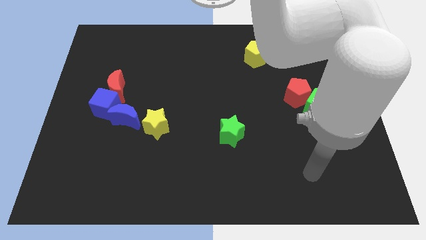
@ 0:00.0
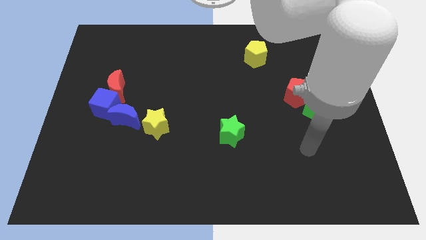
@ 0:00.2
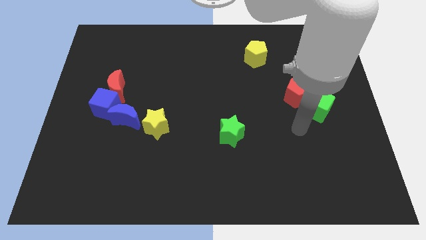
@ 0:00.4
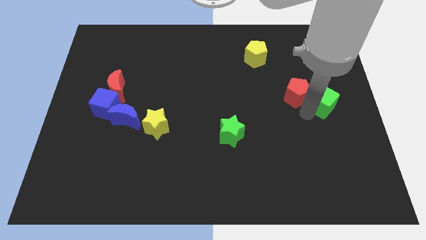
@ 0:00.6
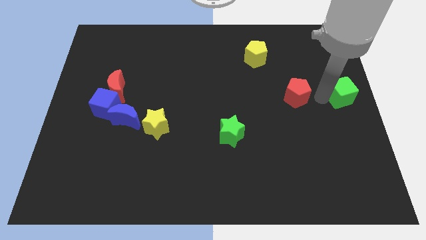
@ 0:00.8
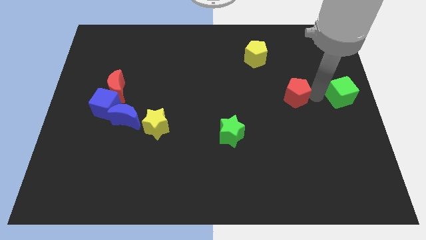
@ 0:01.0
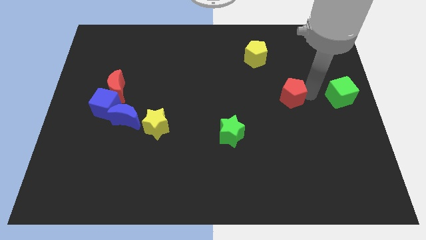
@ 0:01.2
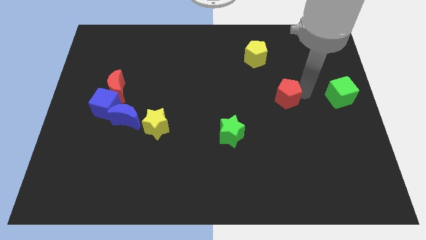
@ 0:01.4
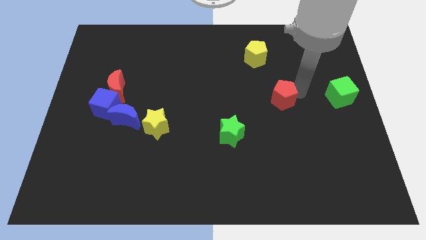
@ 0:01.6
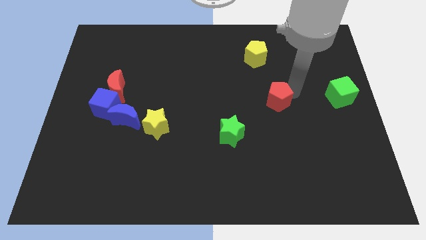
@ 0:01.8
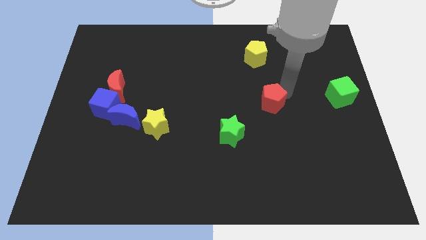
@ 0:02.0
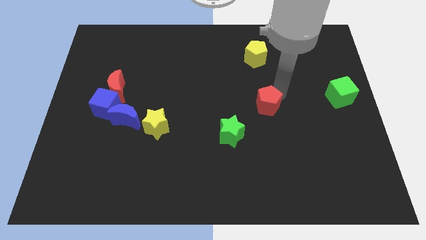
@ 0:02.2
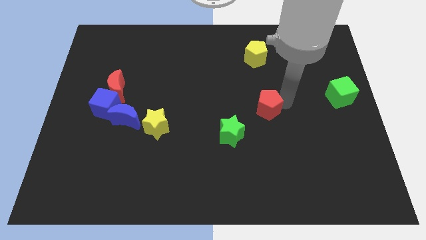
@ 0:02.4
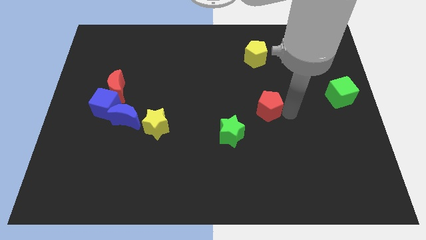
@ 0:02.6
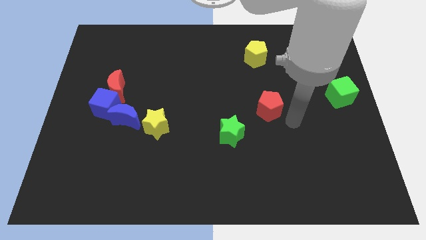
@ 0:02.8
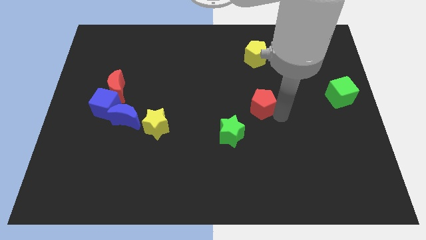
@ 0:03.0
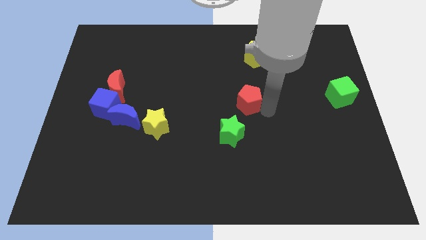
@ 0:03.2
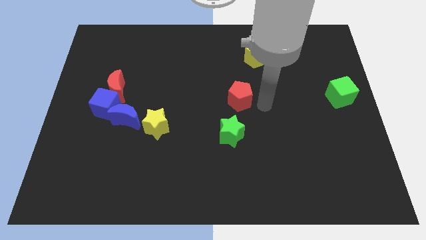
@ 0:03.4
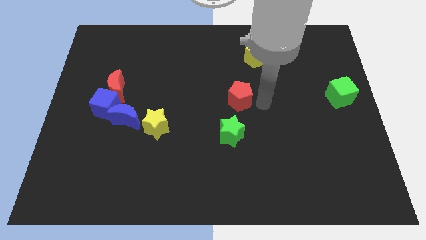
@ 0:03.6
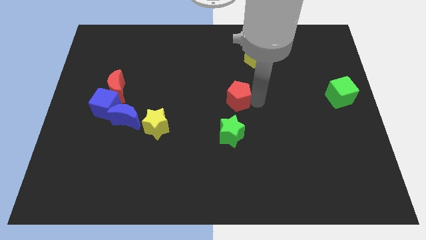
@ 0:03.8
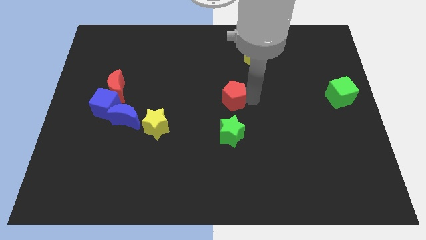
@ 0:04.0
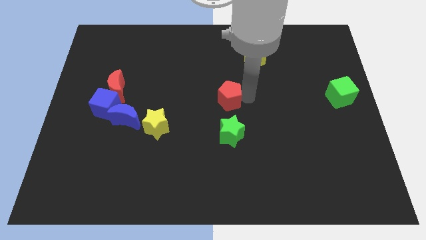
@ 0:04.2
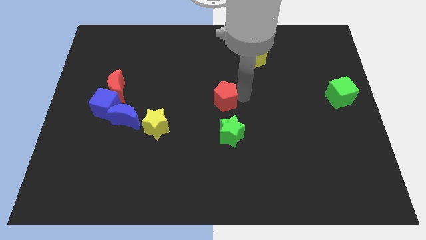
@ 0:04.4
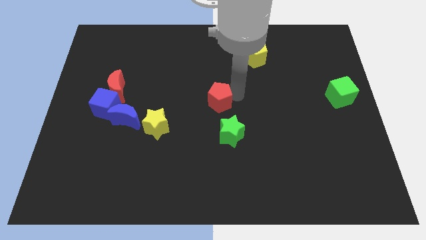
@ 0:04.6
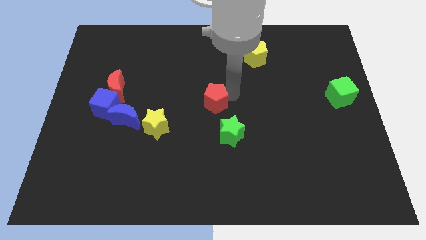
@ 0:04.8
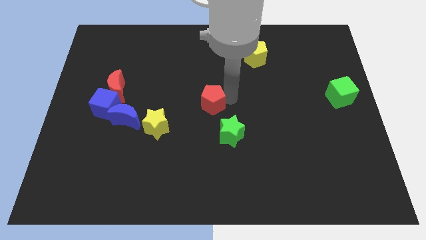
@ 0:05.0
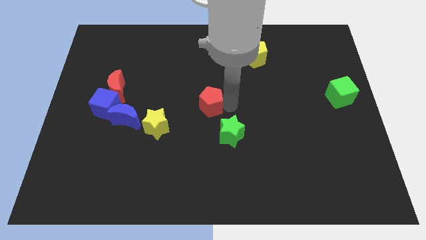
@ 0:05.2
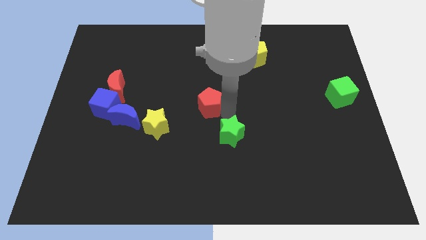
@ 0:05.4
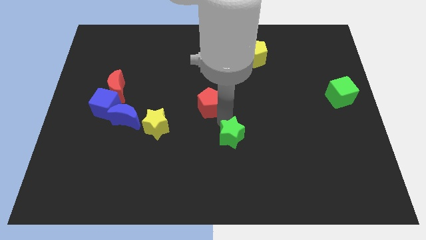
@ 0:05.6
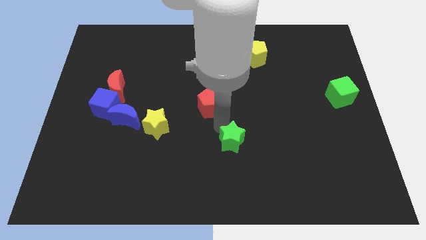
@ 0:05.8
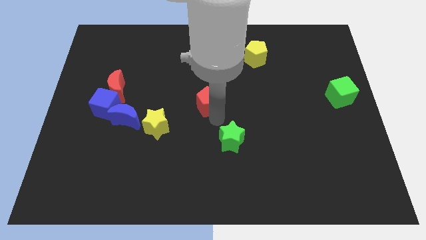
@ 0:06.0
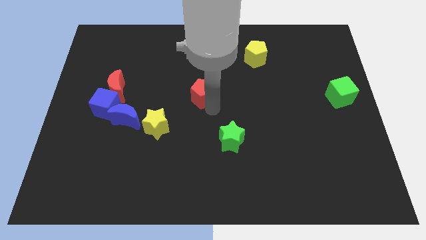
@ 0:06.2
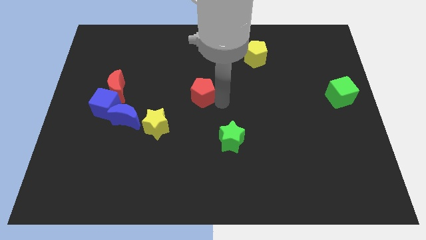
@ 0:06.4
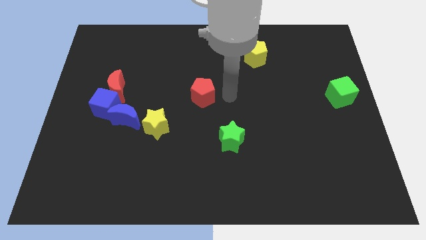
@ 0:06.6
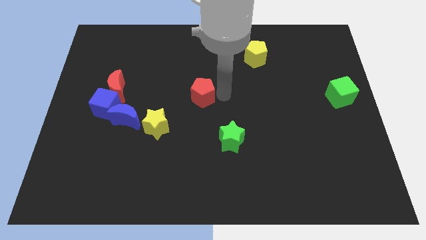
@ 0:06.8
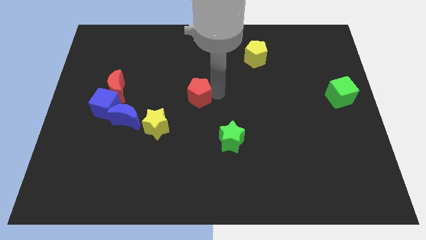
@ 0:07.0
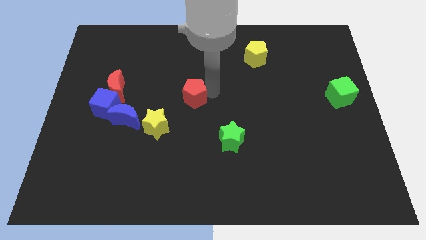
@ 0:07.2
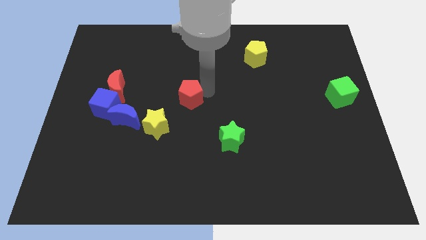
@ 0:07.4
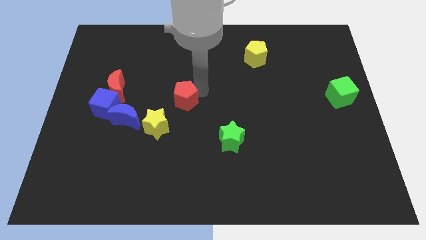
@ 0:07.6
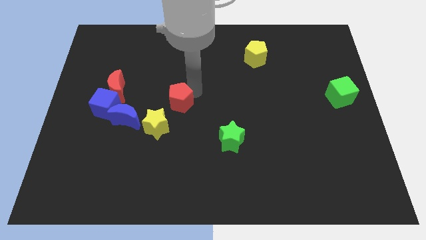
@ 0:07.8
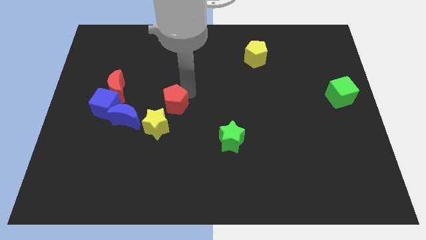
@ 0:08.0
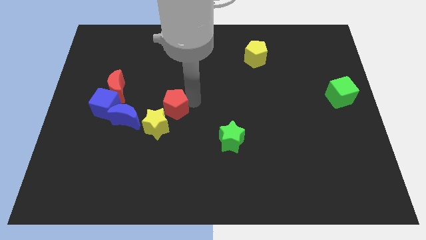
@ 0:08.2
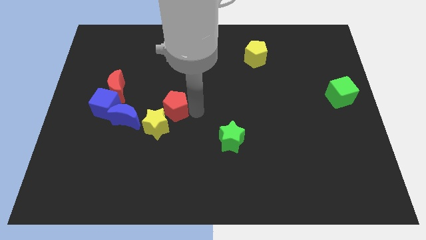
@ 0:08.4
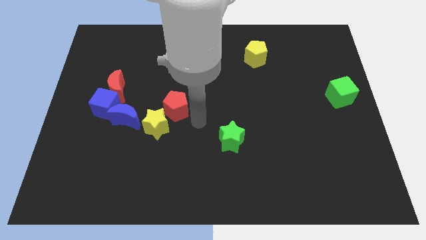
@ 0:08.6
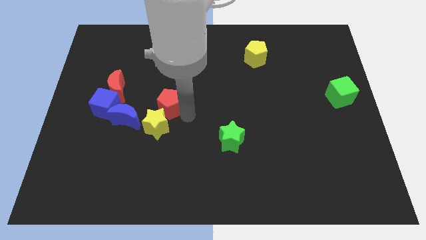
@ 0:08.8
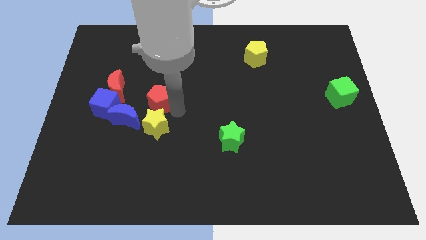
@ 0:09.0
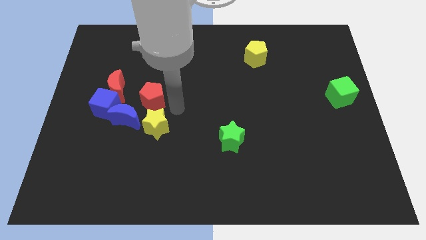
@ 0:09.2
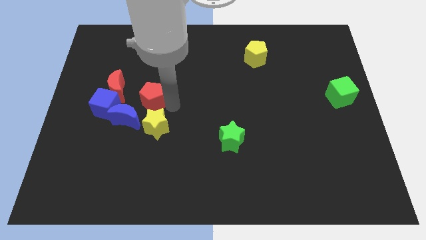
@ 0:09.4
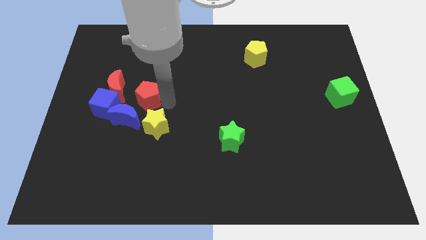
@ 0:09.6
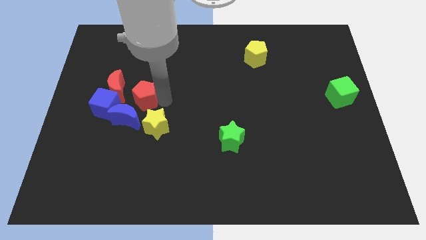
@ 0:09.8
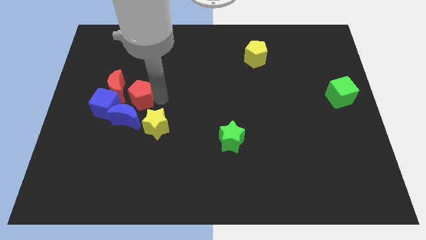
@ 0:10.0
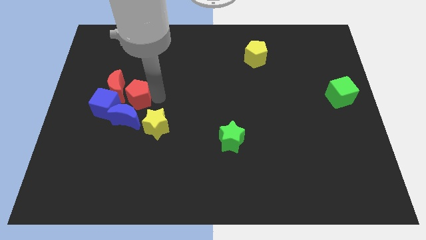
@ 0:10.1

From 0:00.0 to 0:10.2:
move the red pentagon towards the red moon

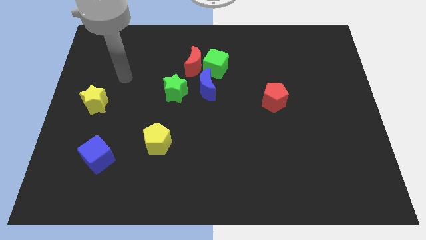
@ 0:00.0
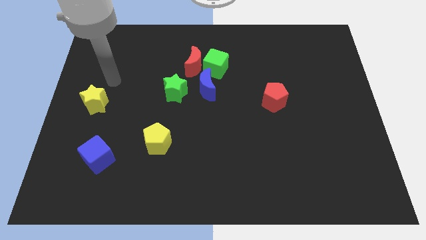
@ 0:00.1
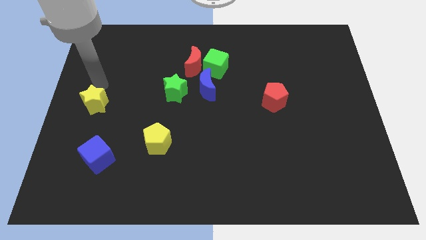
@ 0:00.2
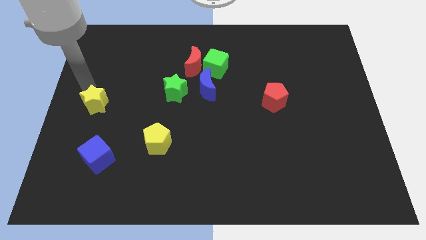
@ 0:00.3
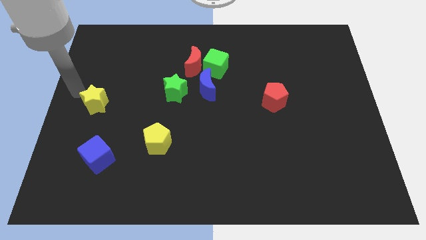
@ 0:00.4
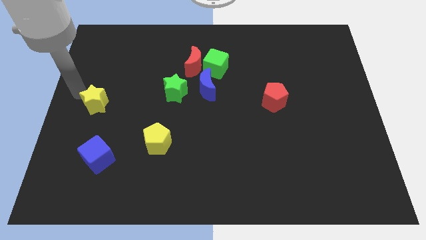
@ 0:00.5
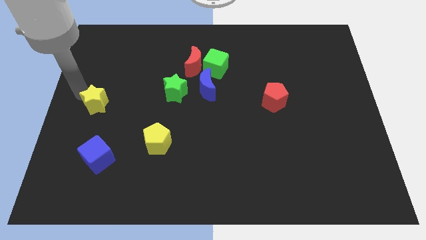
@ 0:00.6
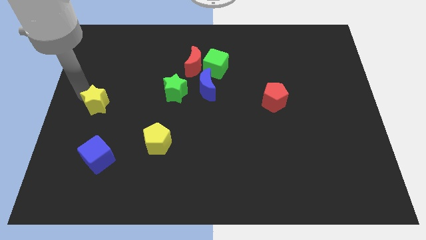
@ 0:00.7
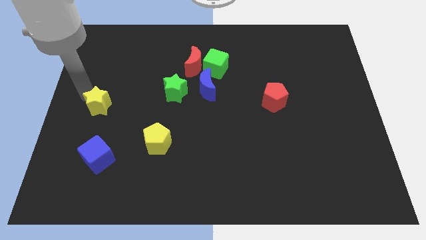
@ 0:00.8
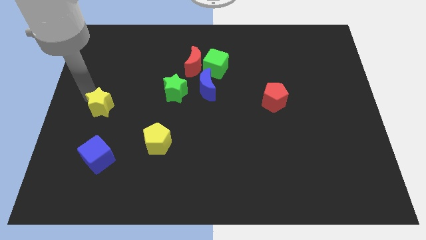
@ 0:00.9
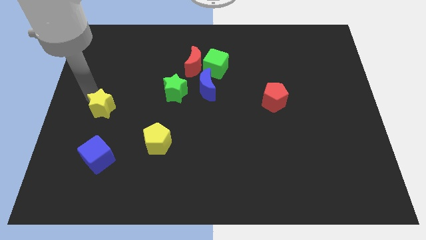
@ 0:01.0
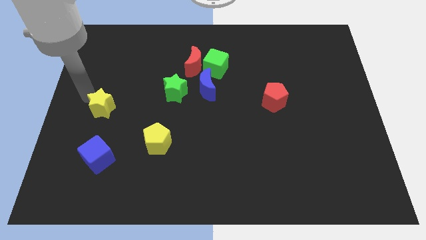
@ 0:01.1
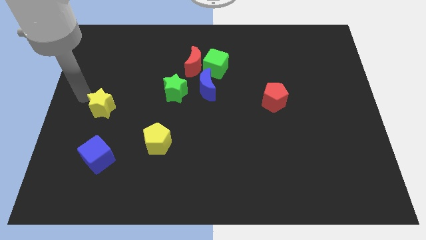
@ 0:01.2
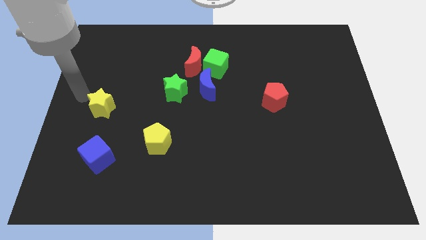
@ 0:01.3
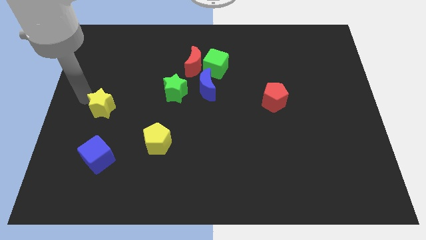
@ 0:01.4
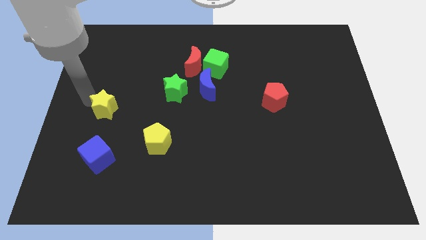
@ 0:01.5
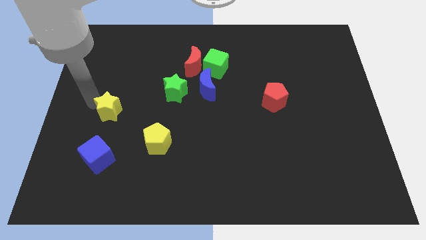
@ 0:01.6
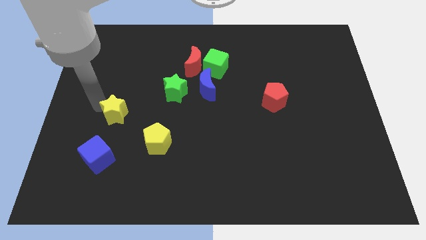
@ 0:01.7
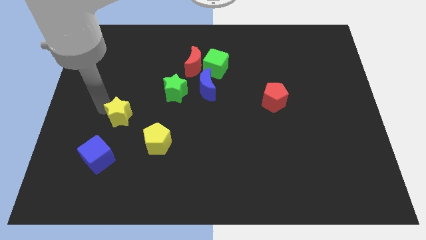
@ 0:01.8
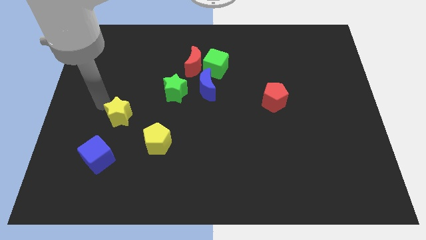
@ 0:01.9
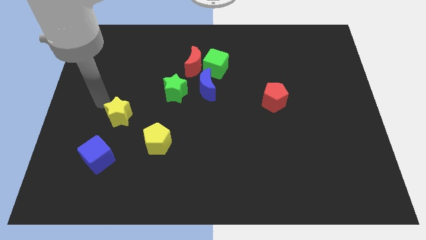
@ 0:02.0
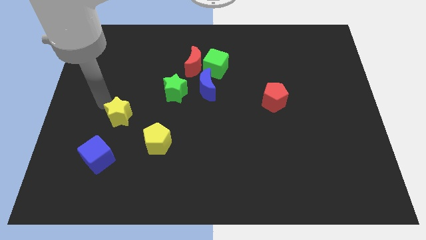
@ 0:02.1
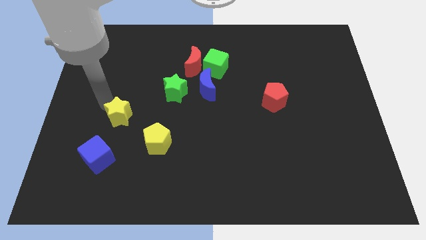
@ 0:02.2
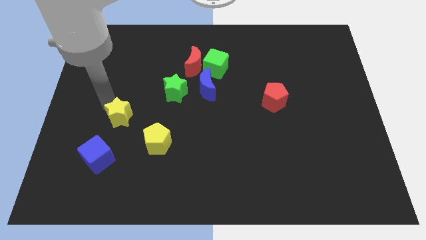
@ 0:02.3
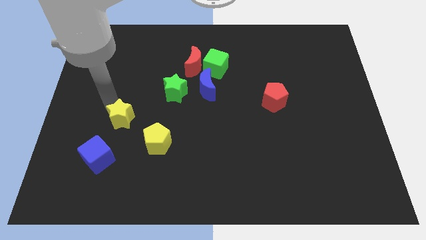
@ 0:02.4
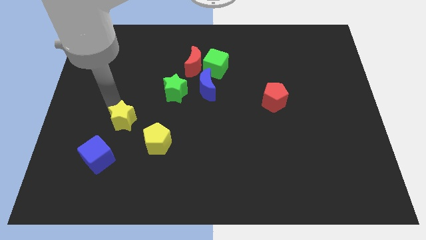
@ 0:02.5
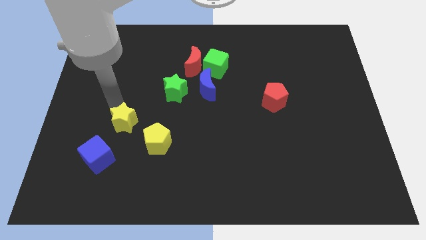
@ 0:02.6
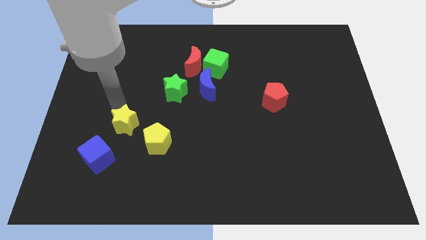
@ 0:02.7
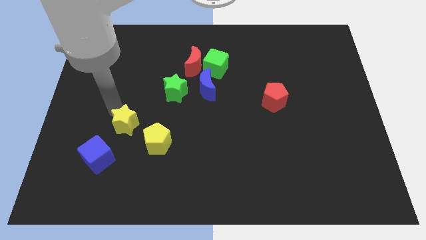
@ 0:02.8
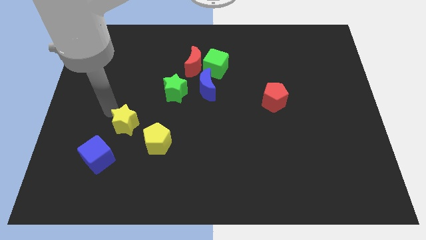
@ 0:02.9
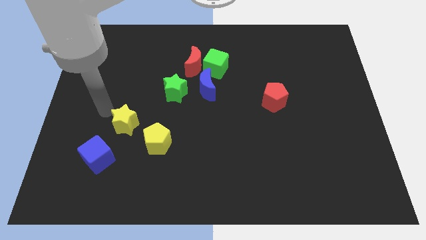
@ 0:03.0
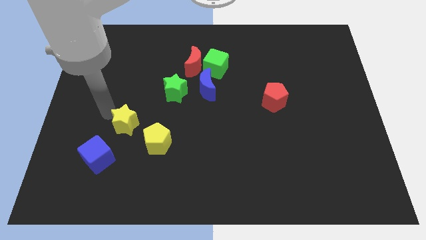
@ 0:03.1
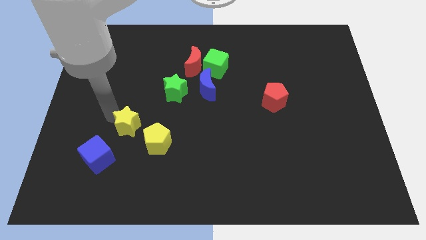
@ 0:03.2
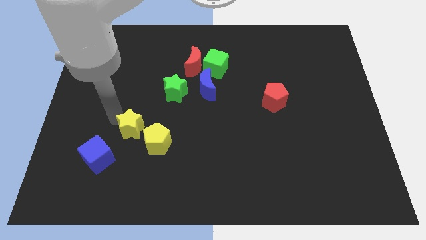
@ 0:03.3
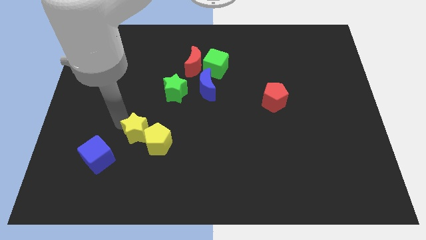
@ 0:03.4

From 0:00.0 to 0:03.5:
put the yellow star close to the yellow pentagon
